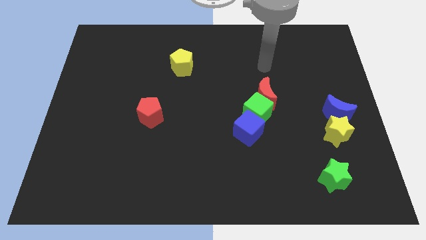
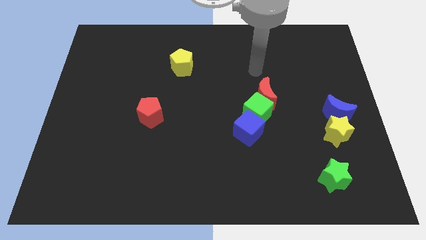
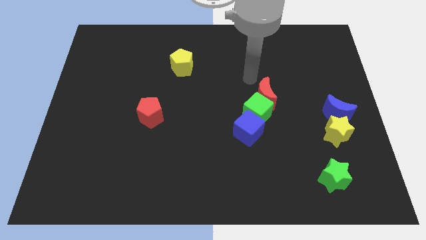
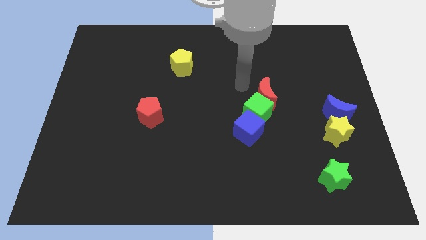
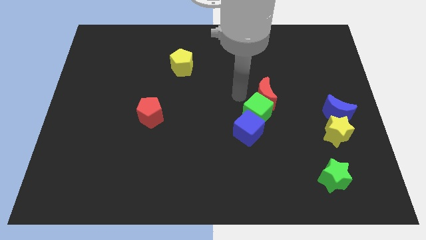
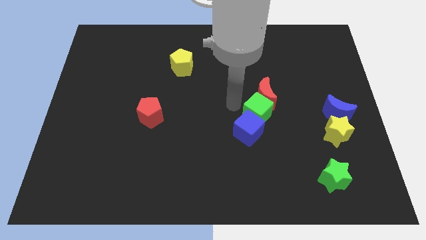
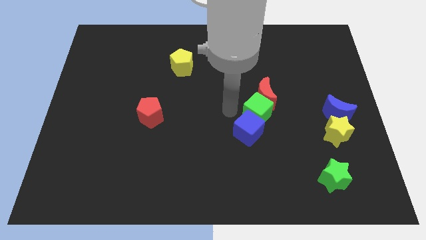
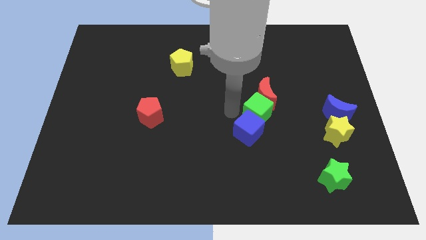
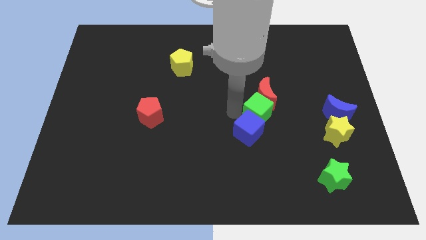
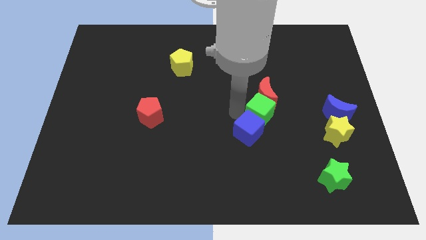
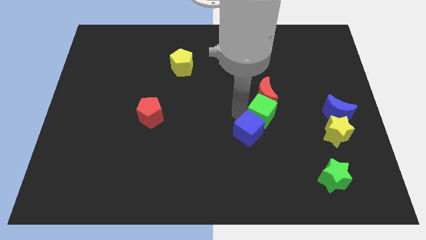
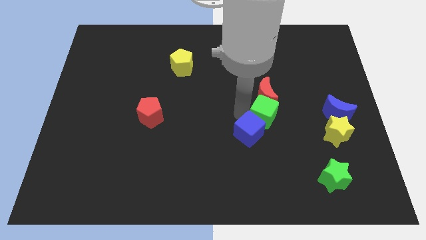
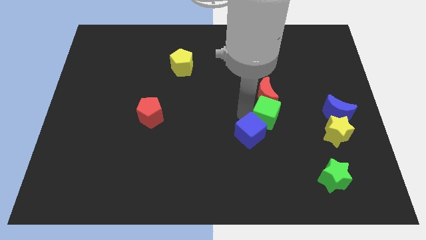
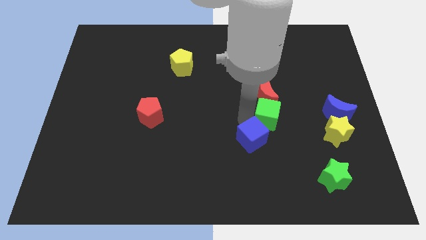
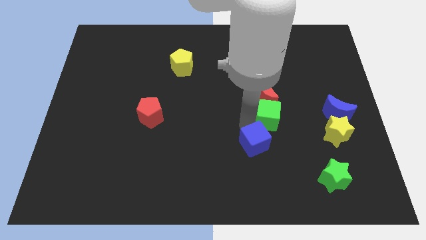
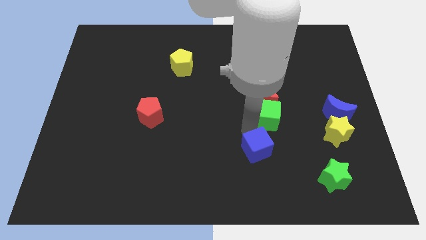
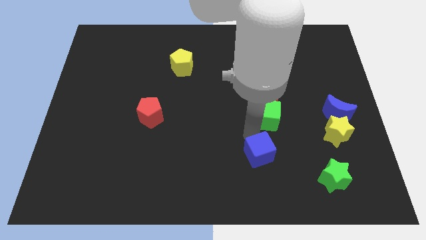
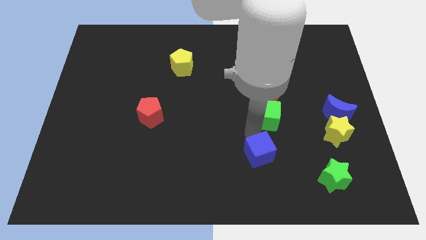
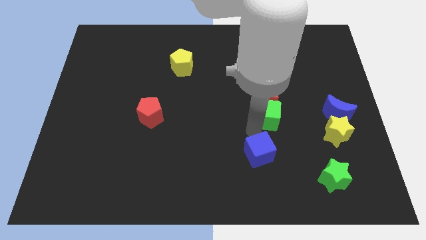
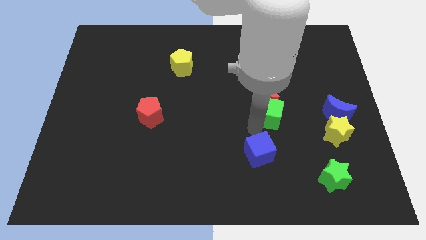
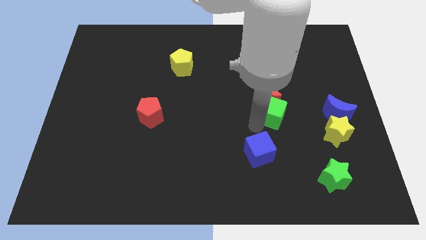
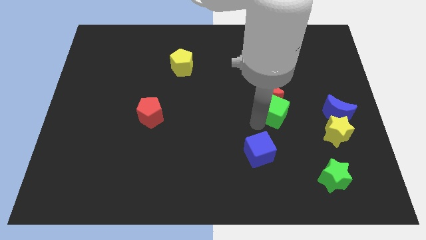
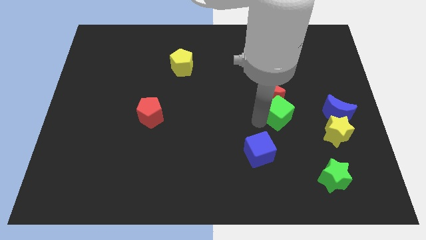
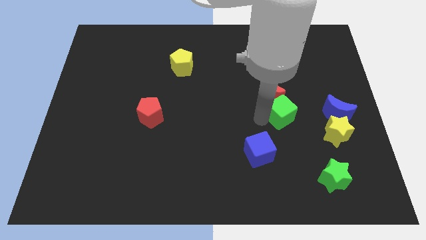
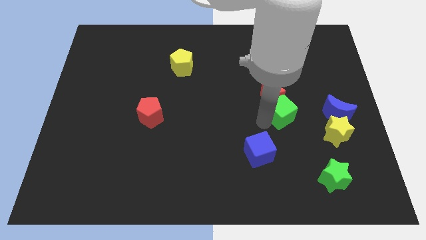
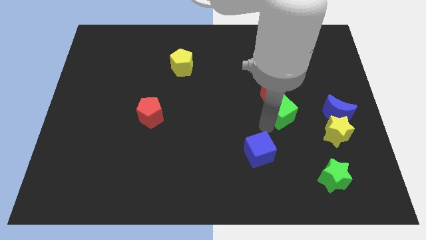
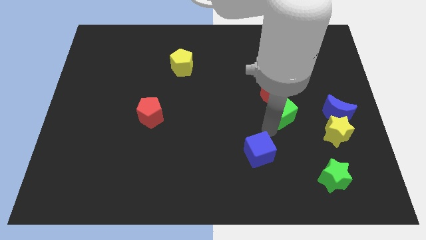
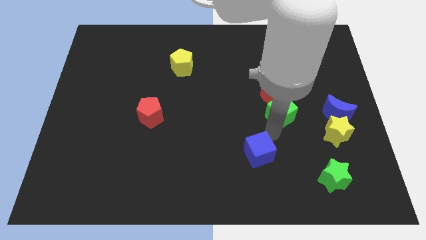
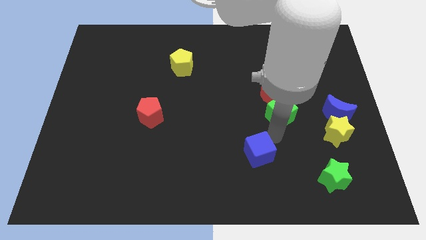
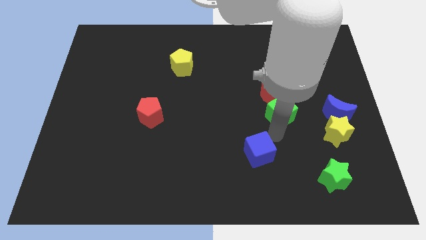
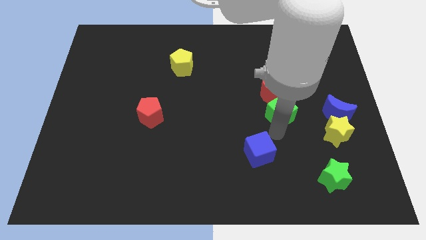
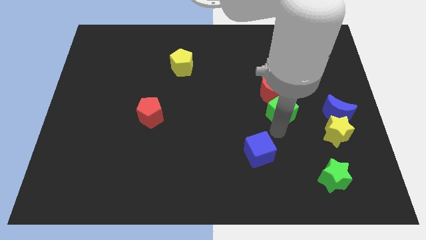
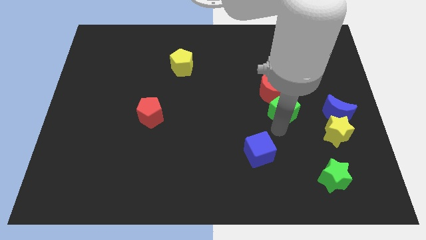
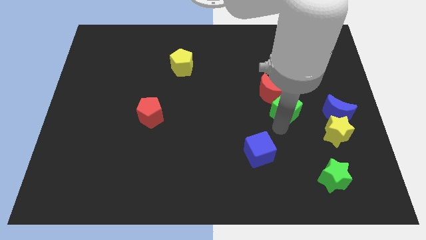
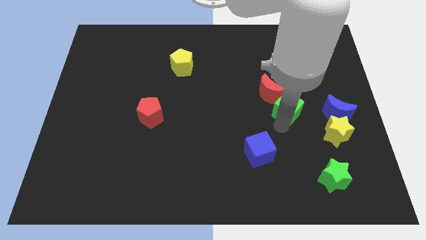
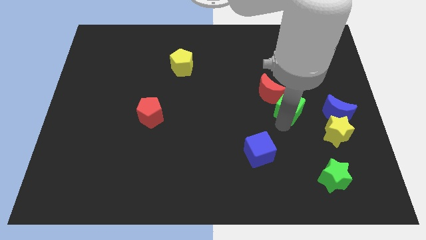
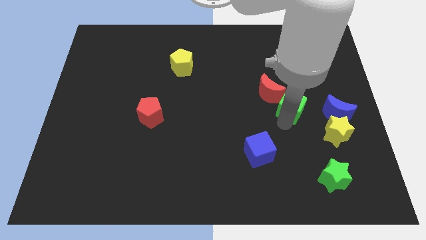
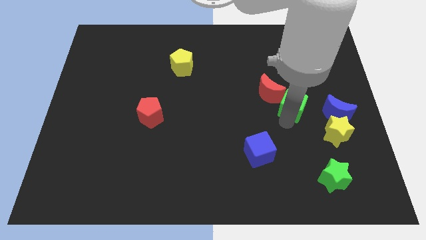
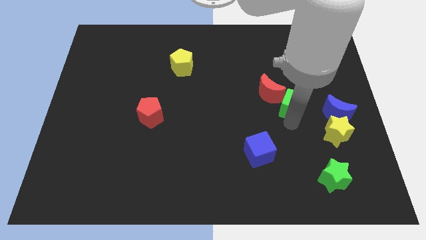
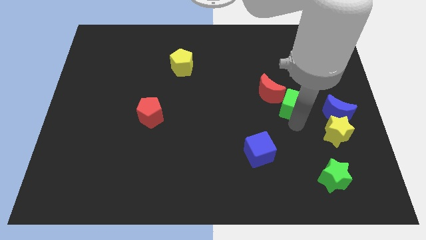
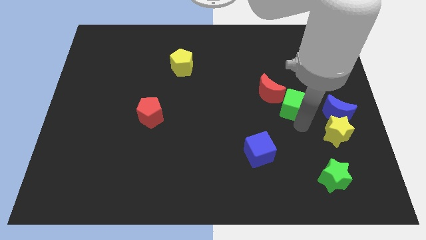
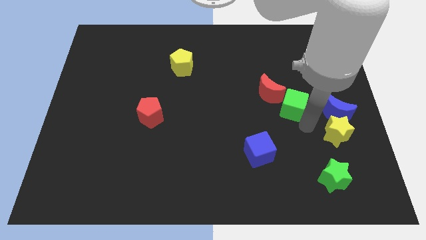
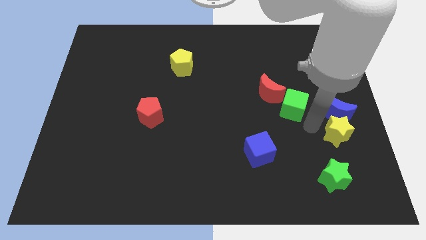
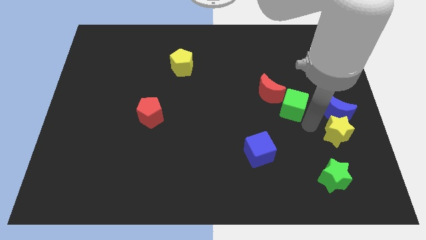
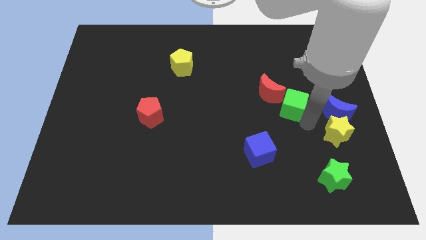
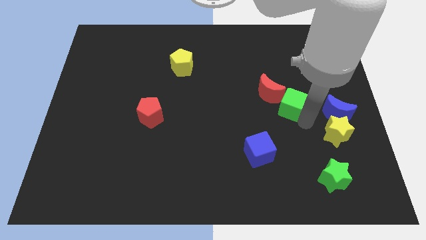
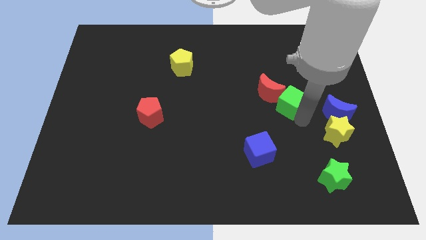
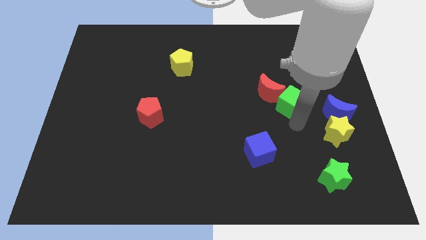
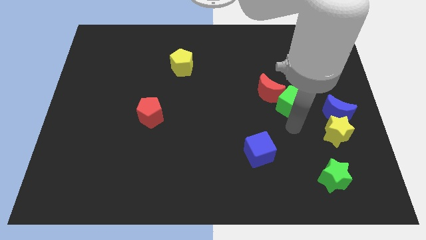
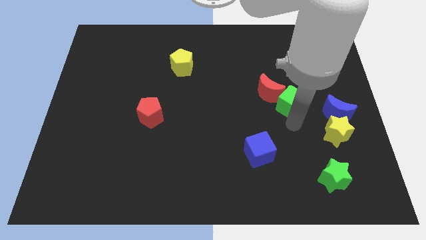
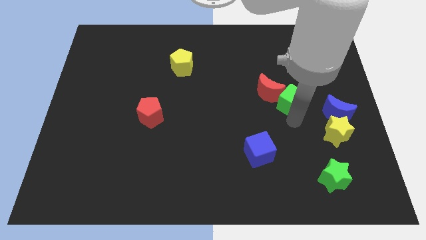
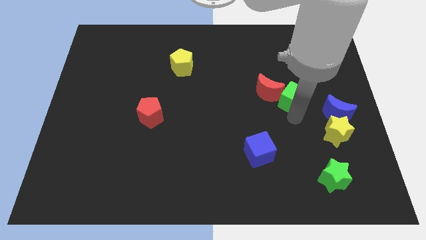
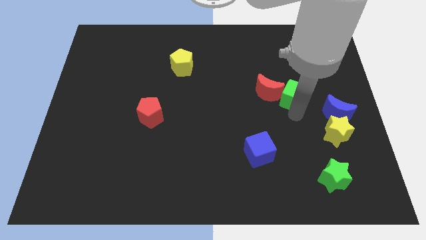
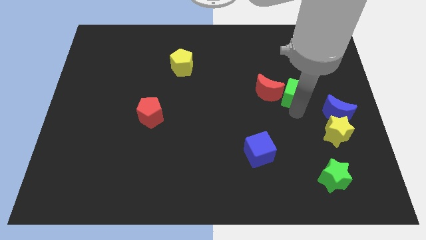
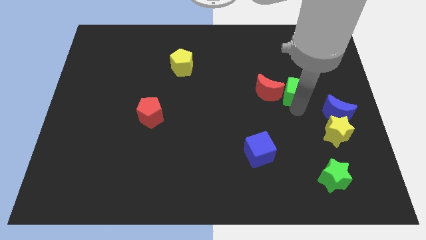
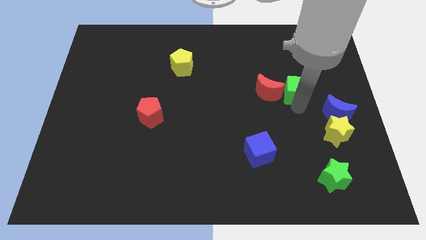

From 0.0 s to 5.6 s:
move the green cube diagonally up and to the right of the red moon

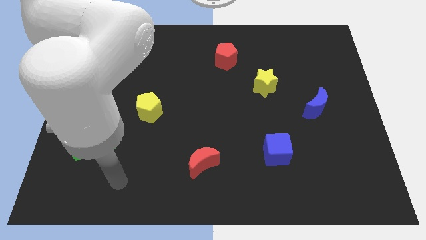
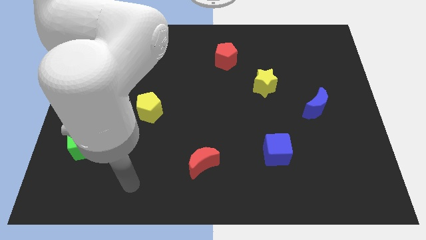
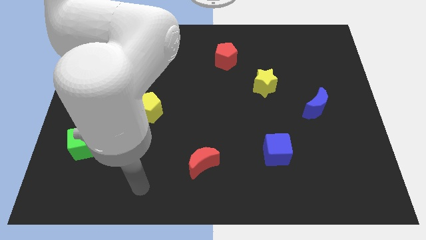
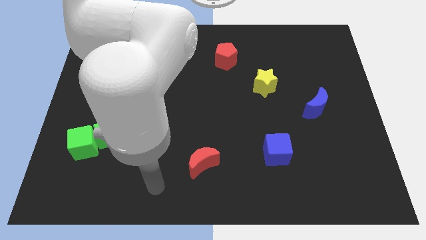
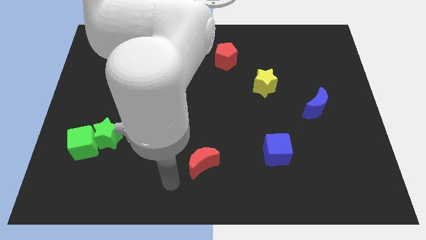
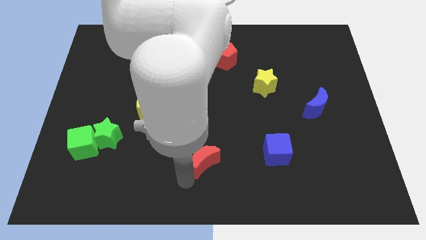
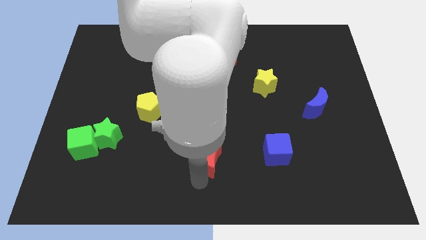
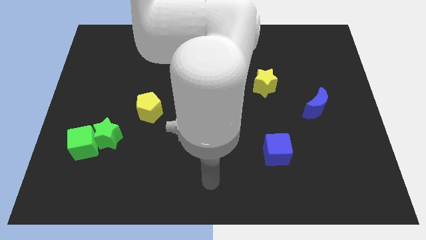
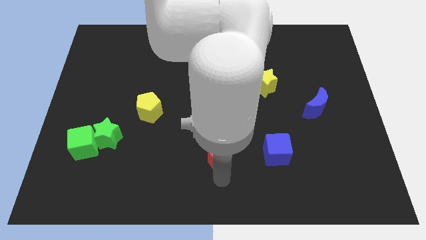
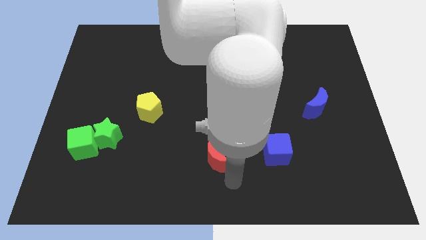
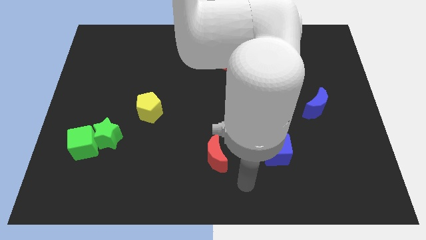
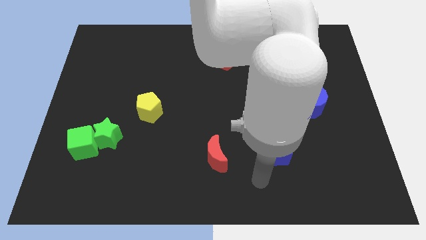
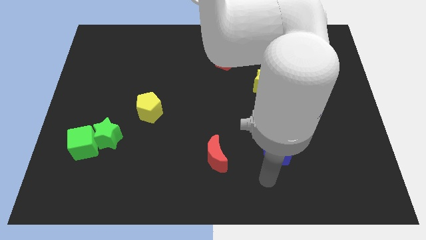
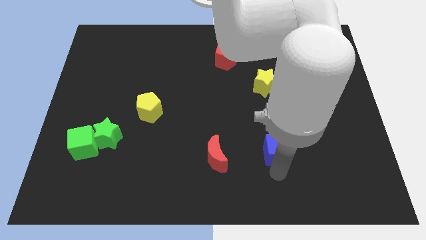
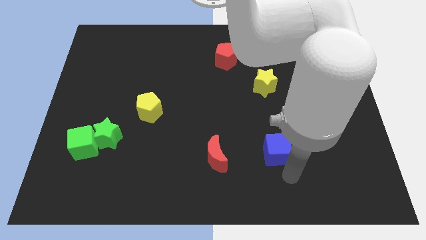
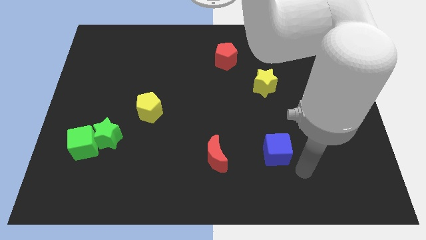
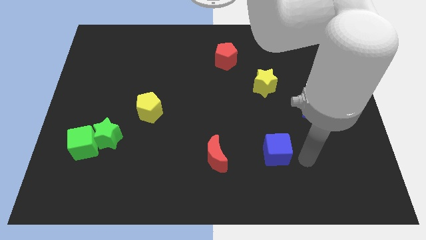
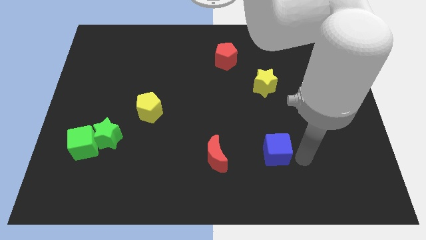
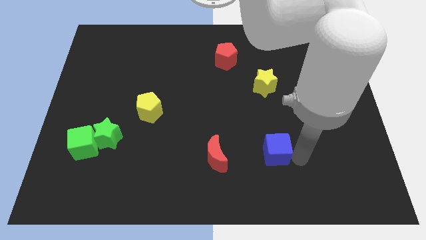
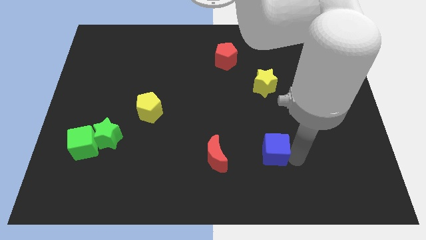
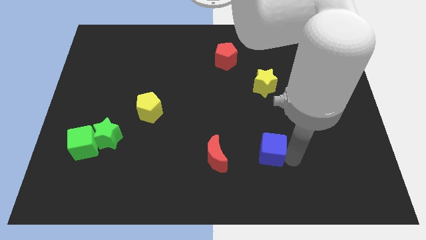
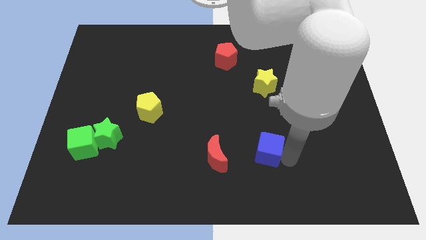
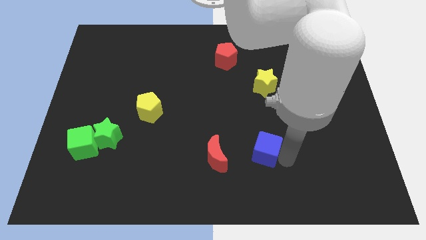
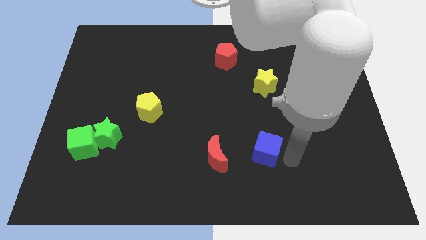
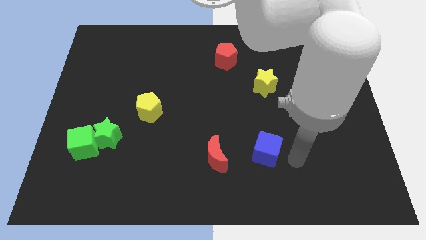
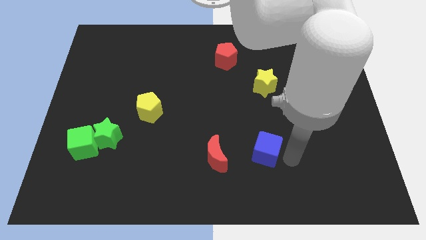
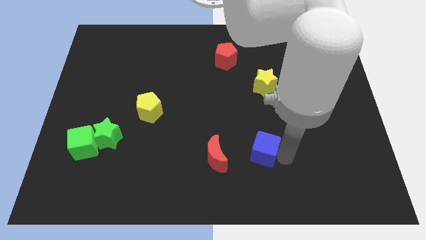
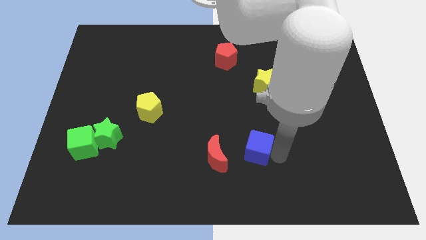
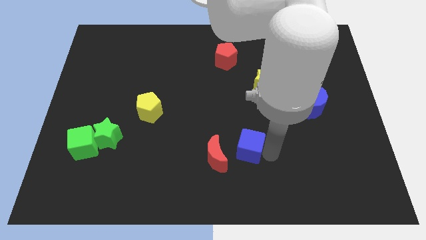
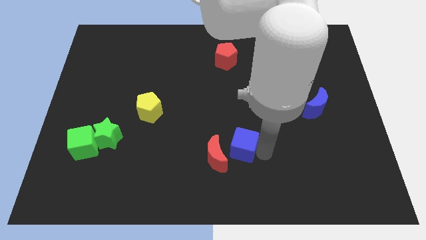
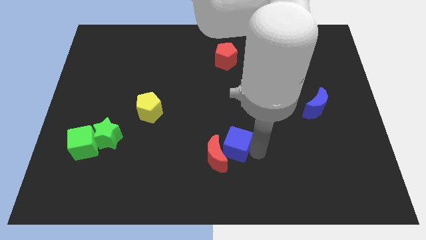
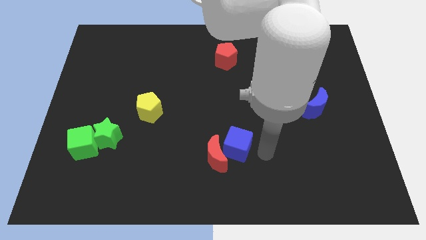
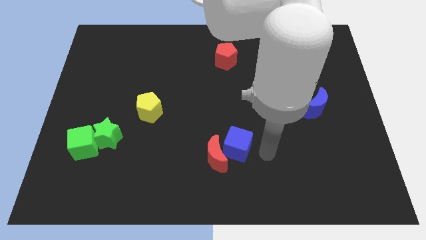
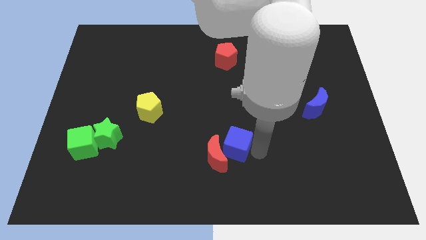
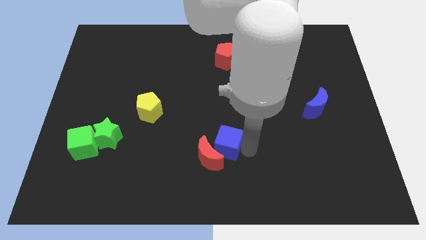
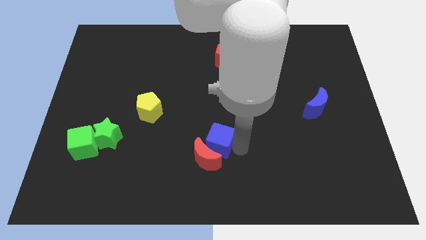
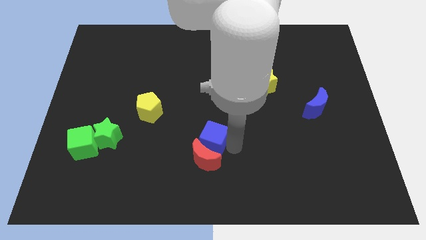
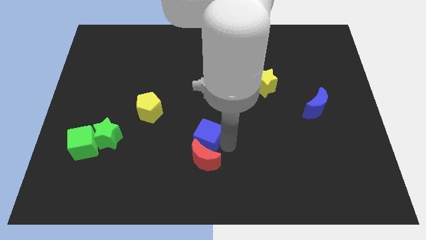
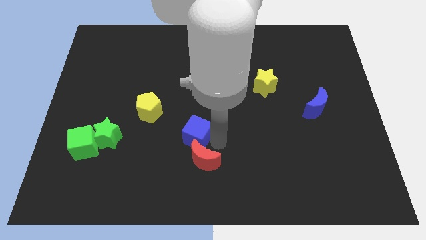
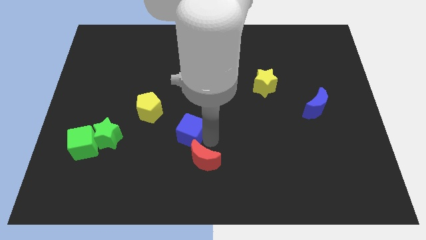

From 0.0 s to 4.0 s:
put the blue cube diagonally down and to the right of the yellow pentagon
